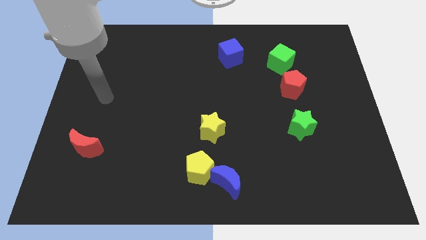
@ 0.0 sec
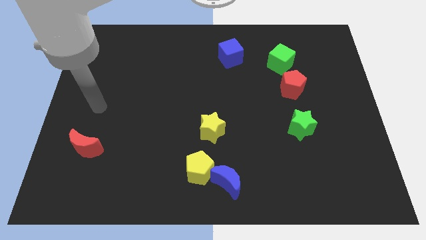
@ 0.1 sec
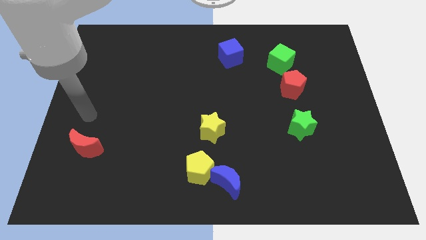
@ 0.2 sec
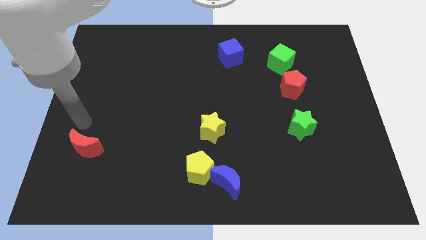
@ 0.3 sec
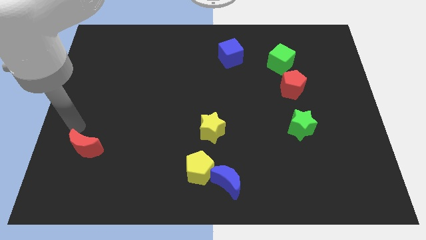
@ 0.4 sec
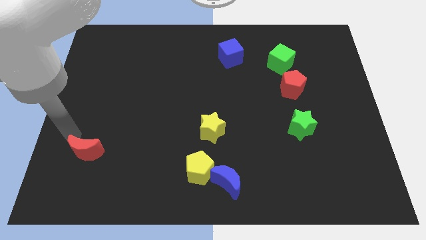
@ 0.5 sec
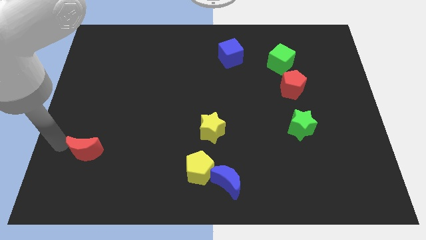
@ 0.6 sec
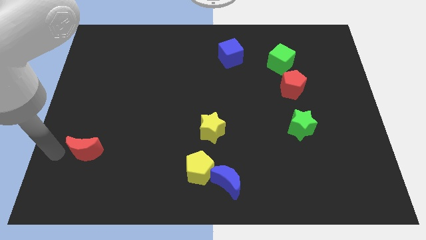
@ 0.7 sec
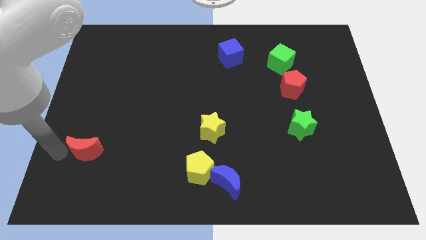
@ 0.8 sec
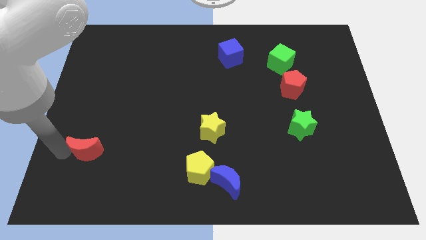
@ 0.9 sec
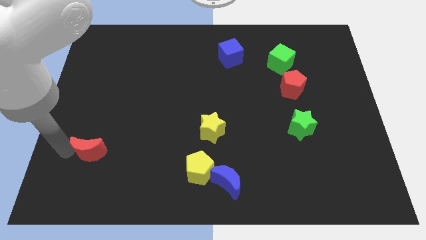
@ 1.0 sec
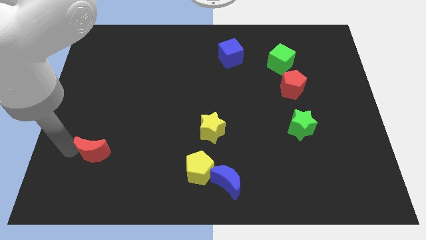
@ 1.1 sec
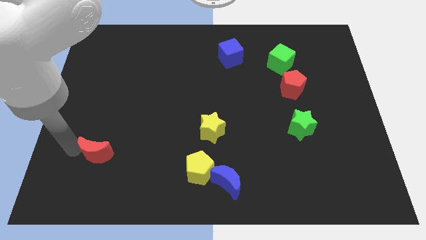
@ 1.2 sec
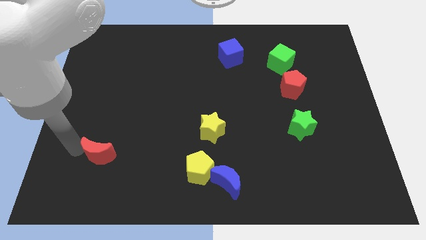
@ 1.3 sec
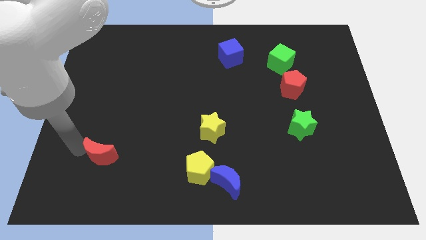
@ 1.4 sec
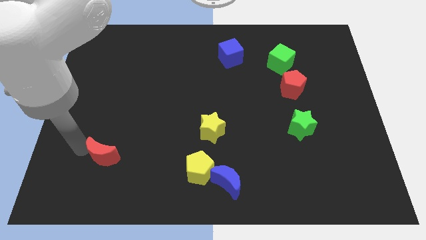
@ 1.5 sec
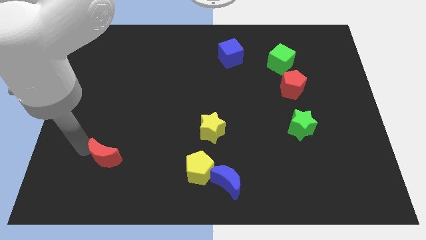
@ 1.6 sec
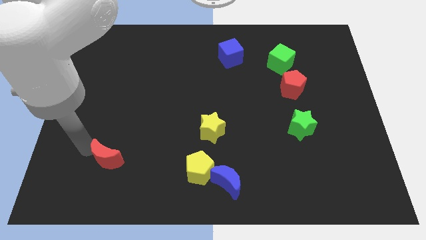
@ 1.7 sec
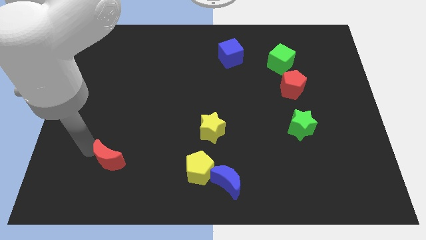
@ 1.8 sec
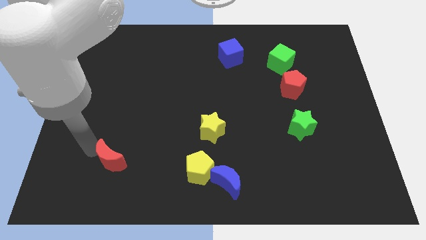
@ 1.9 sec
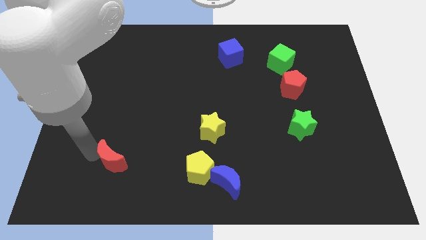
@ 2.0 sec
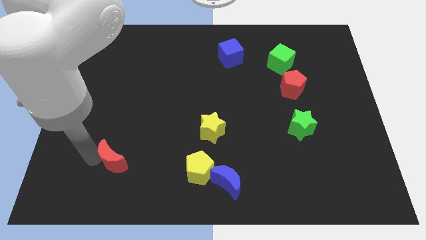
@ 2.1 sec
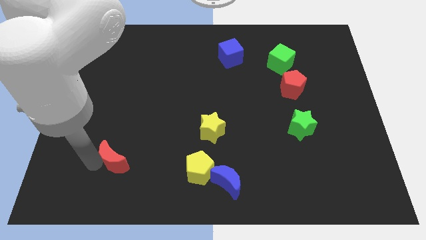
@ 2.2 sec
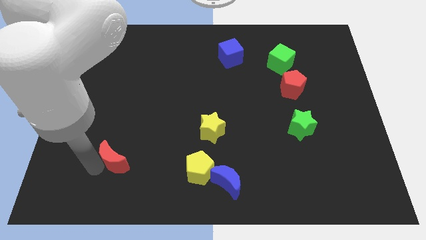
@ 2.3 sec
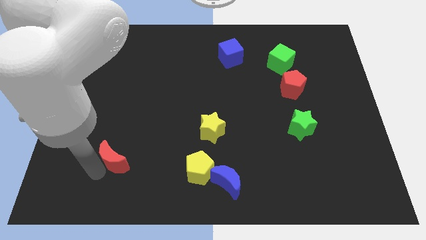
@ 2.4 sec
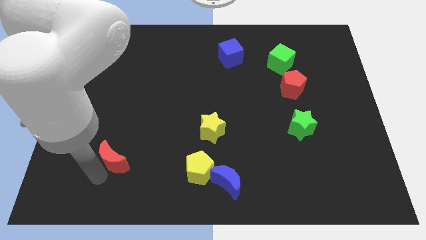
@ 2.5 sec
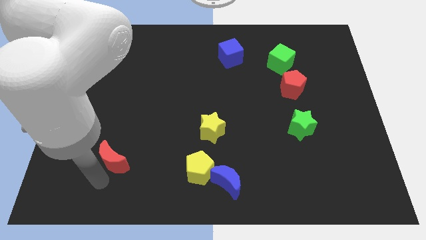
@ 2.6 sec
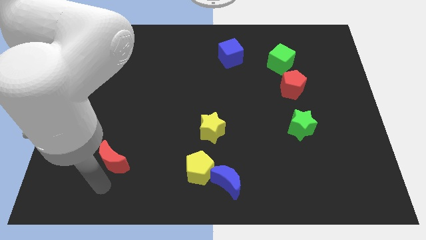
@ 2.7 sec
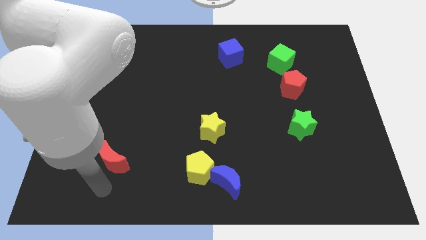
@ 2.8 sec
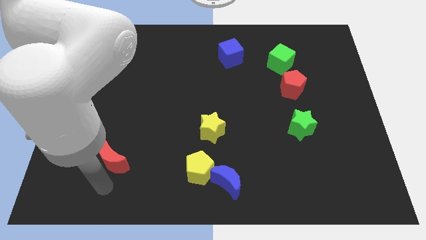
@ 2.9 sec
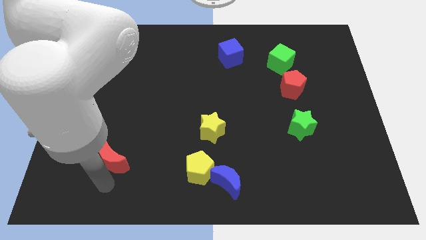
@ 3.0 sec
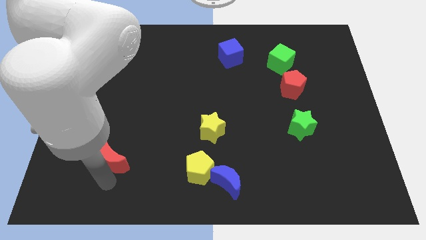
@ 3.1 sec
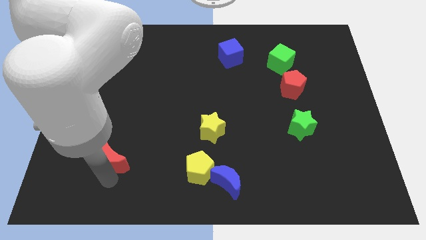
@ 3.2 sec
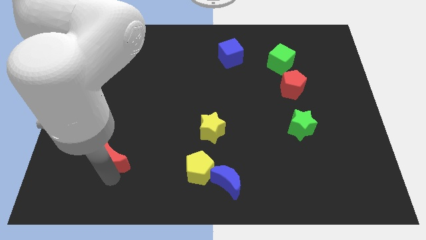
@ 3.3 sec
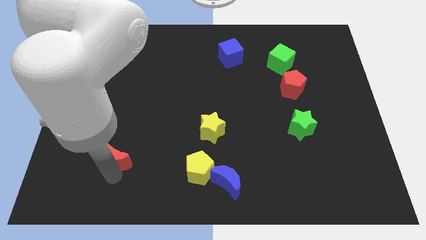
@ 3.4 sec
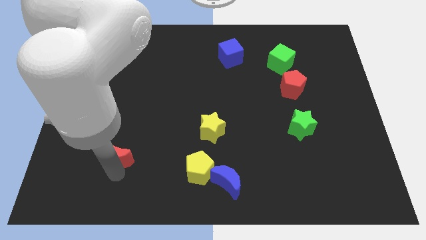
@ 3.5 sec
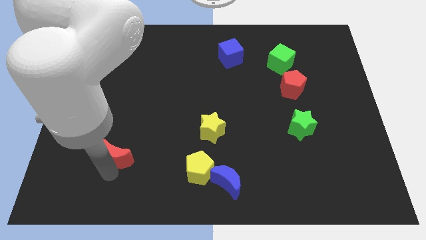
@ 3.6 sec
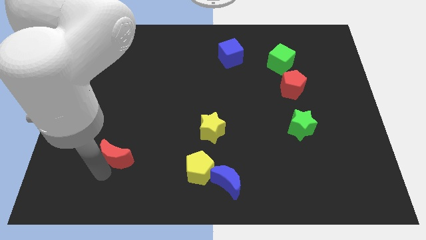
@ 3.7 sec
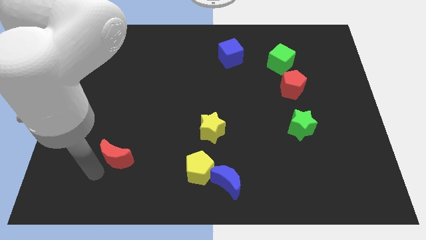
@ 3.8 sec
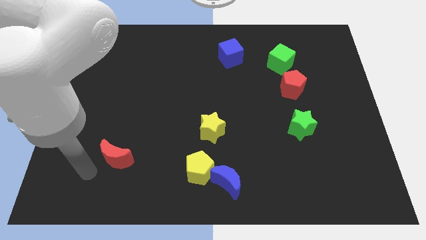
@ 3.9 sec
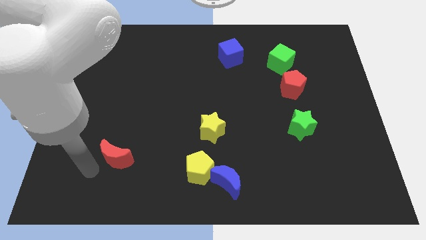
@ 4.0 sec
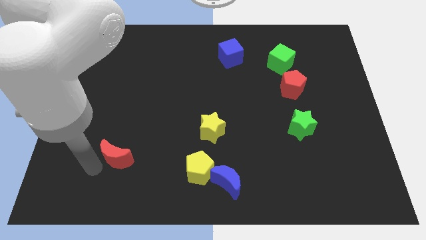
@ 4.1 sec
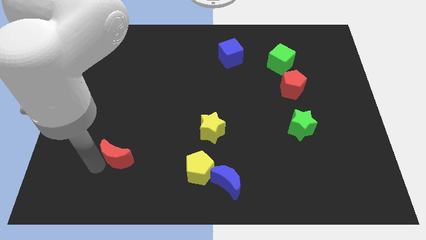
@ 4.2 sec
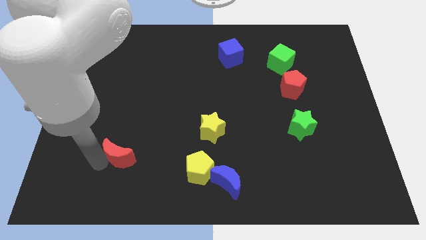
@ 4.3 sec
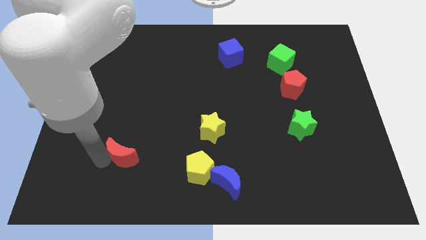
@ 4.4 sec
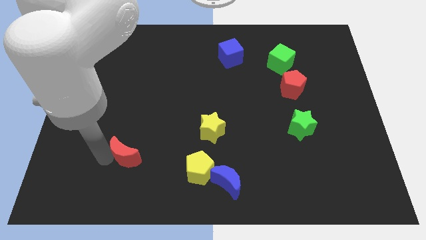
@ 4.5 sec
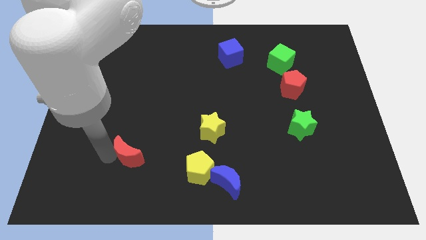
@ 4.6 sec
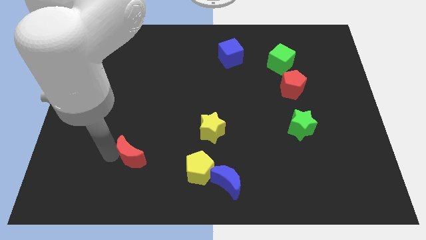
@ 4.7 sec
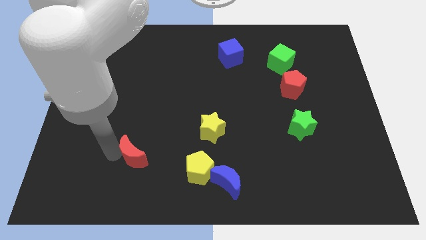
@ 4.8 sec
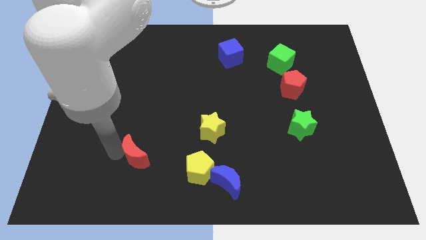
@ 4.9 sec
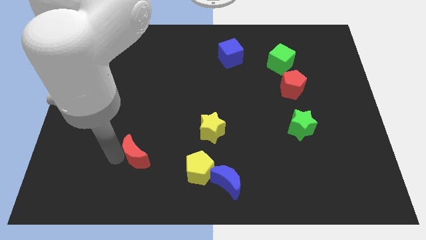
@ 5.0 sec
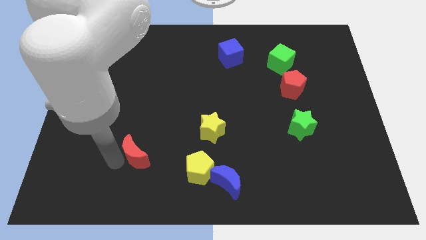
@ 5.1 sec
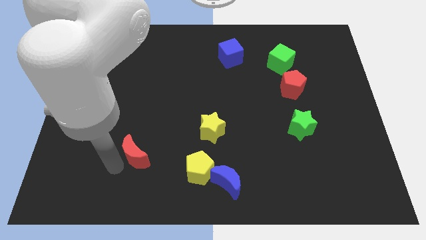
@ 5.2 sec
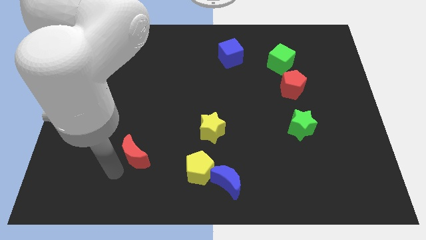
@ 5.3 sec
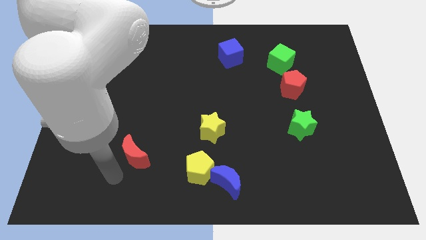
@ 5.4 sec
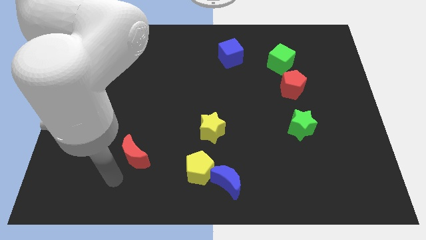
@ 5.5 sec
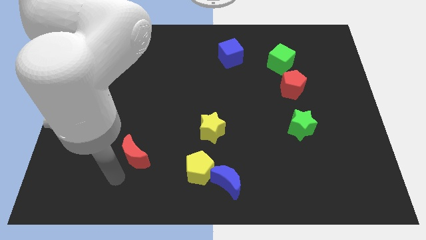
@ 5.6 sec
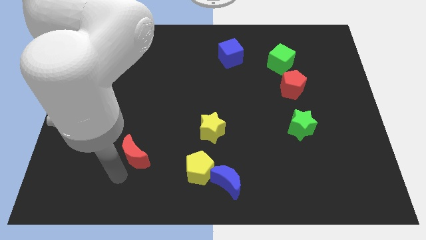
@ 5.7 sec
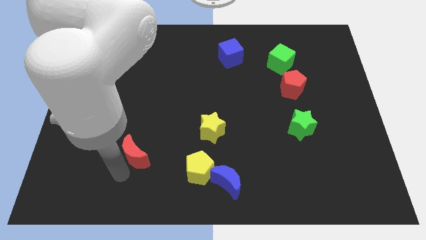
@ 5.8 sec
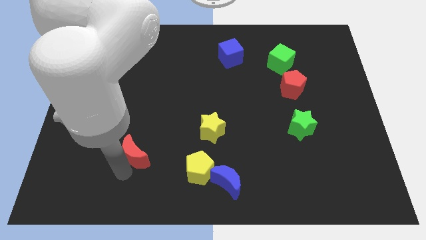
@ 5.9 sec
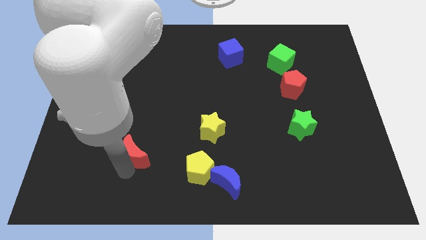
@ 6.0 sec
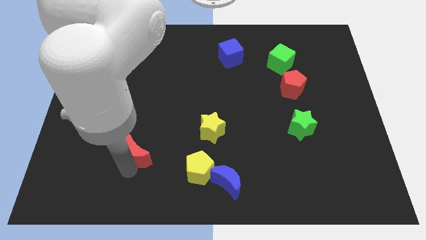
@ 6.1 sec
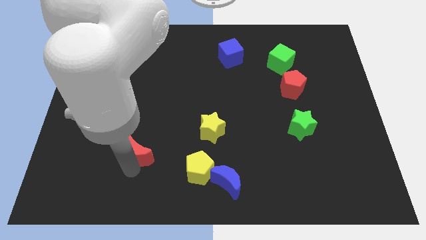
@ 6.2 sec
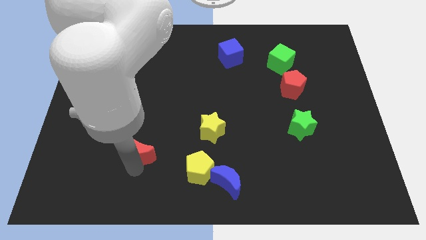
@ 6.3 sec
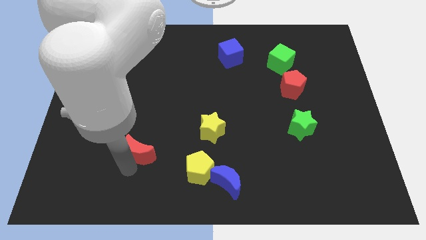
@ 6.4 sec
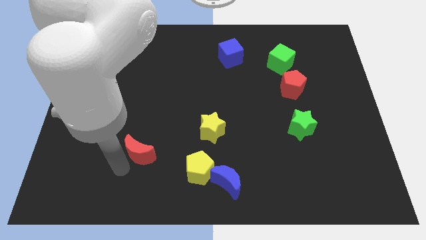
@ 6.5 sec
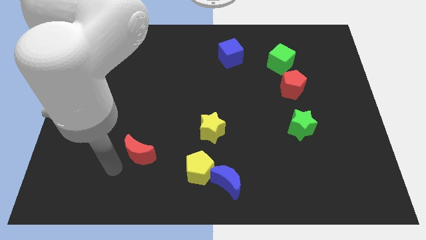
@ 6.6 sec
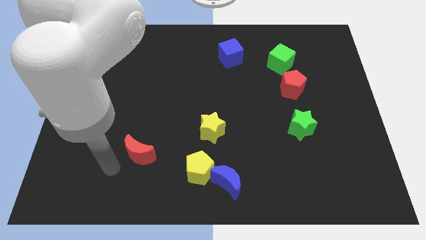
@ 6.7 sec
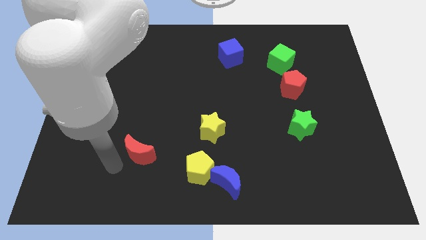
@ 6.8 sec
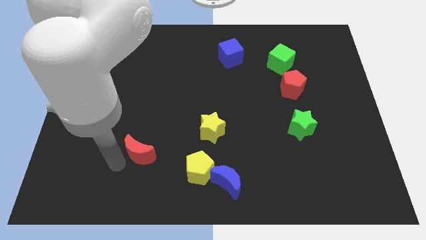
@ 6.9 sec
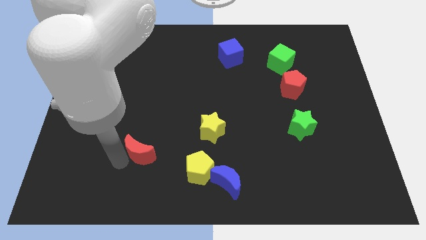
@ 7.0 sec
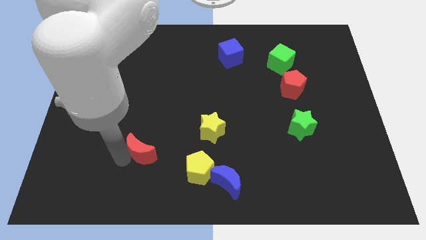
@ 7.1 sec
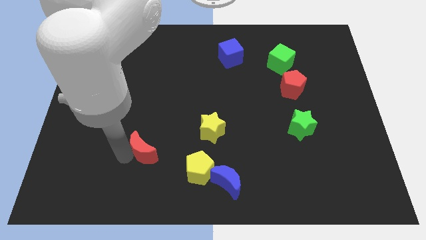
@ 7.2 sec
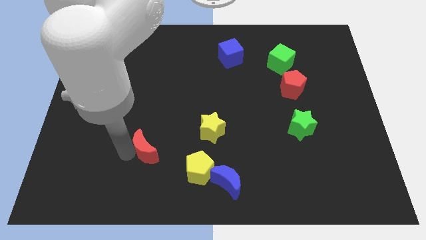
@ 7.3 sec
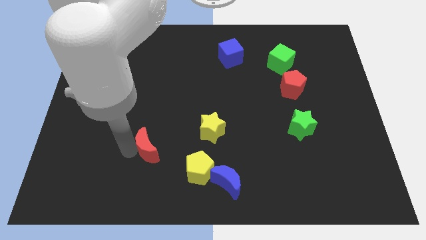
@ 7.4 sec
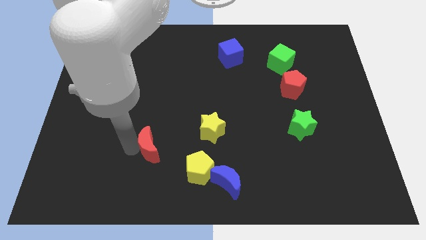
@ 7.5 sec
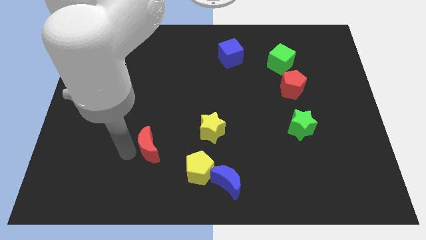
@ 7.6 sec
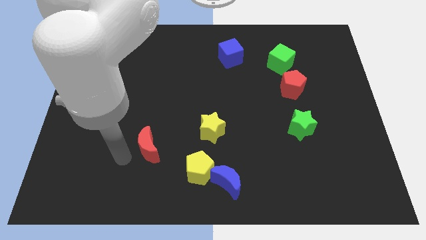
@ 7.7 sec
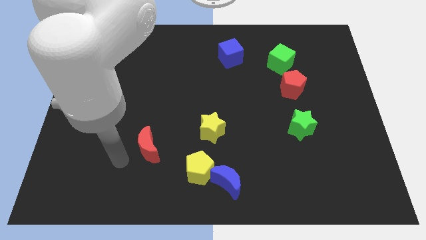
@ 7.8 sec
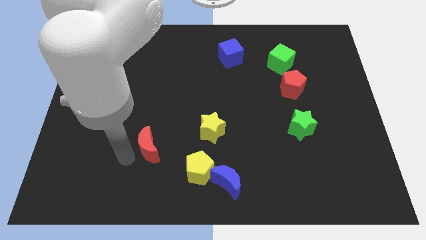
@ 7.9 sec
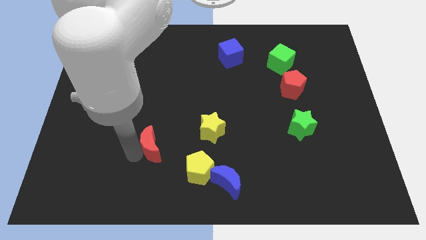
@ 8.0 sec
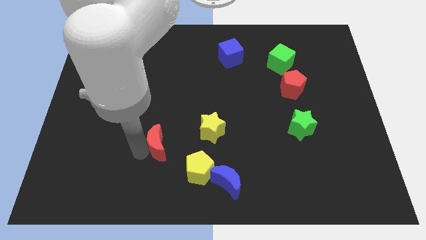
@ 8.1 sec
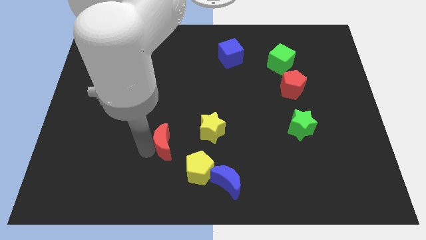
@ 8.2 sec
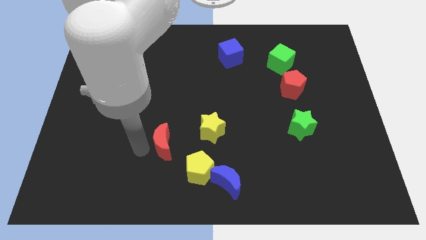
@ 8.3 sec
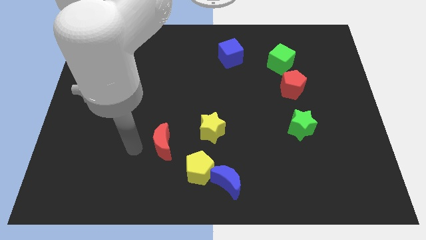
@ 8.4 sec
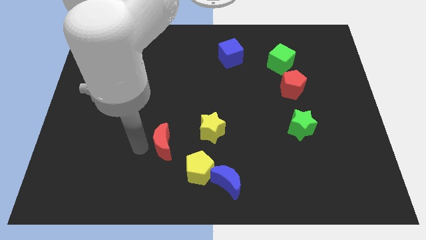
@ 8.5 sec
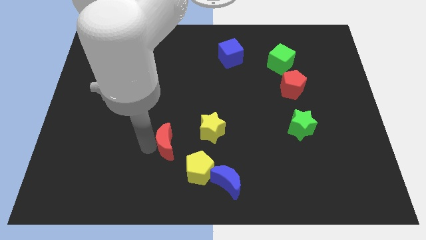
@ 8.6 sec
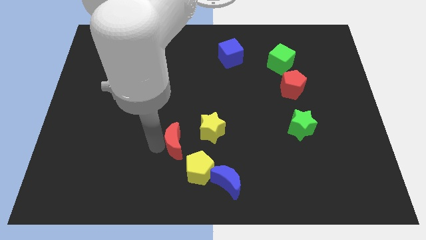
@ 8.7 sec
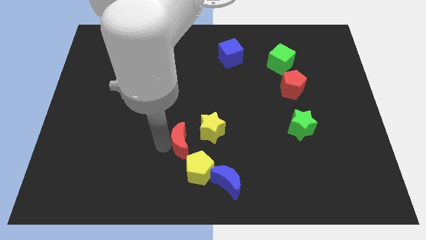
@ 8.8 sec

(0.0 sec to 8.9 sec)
push the red moon right
